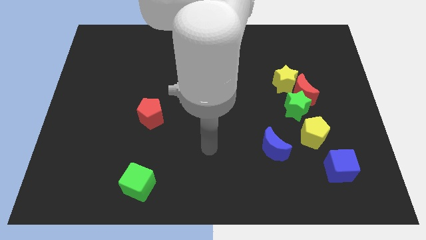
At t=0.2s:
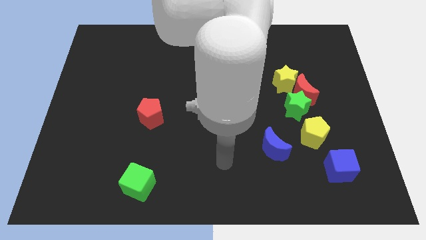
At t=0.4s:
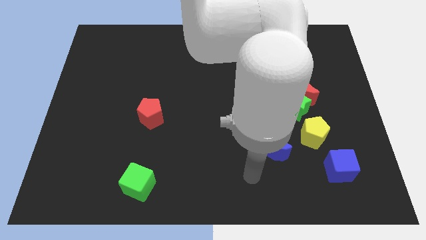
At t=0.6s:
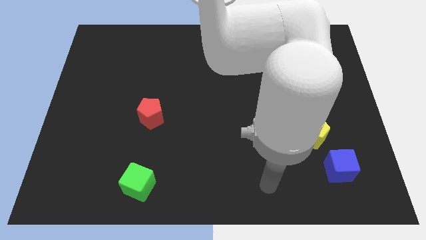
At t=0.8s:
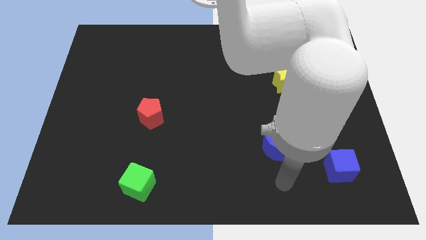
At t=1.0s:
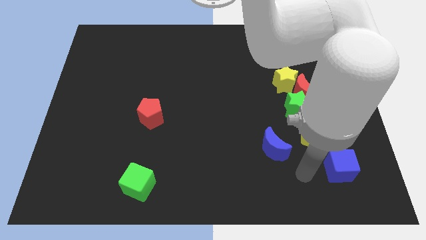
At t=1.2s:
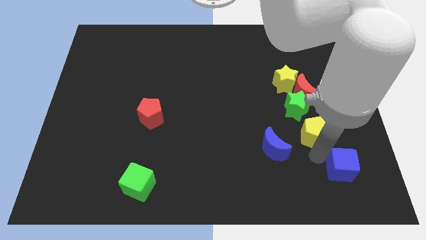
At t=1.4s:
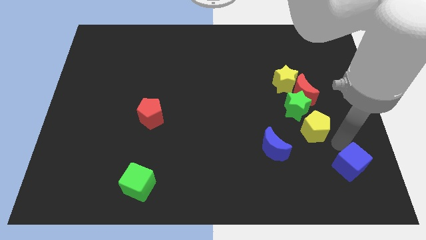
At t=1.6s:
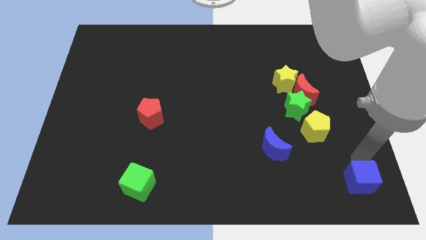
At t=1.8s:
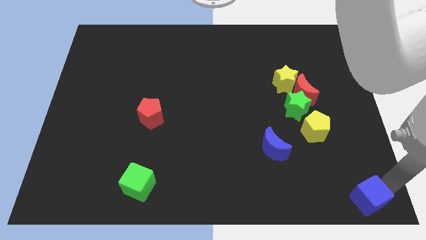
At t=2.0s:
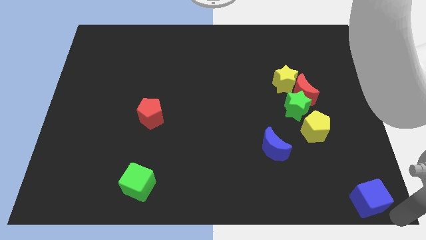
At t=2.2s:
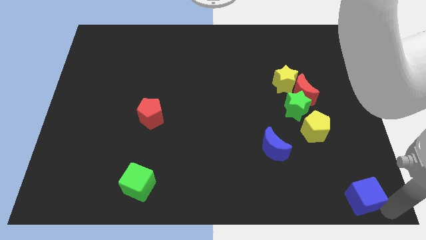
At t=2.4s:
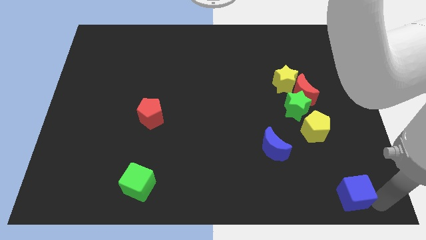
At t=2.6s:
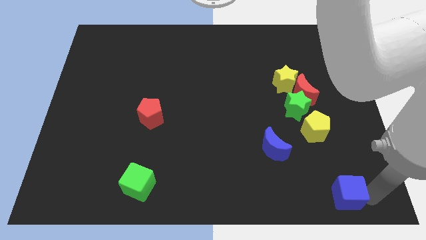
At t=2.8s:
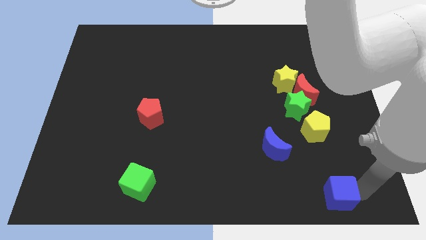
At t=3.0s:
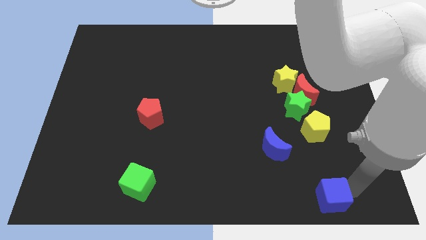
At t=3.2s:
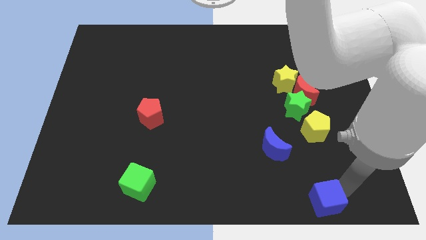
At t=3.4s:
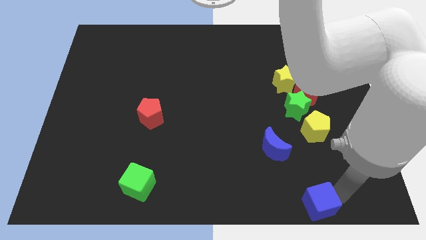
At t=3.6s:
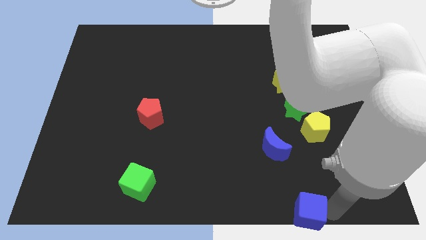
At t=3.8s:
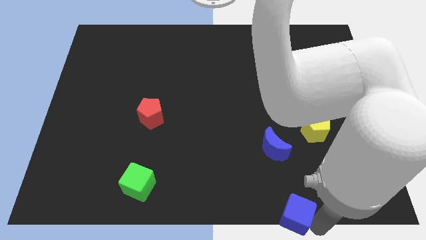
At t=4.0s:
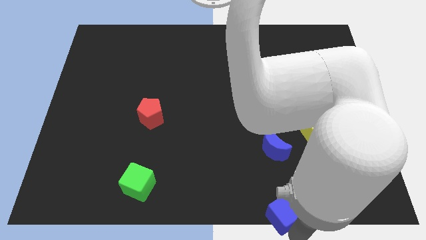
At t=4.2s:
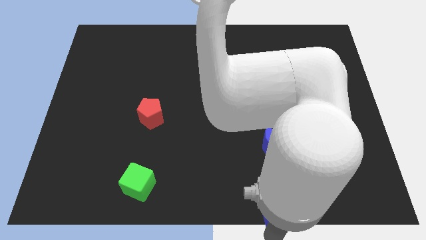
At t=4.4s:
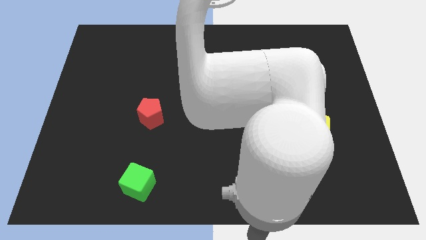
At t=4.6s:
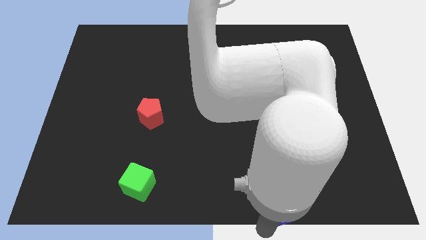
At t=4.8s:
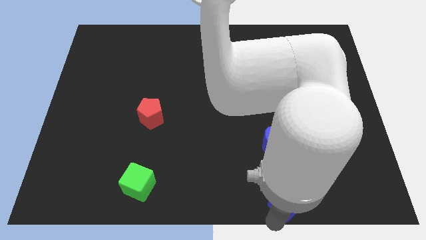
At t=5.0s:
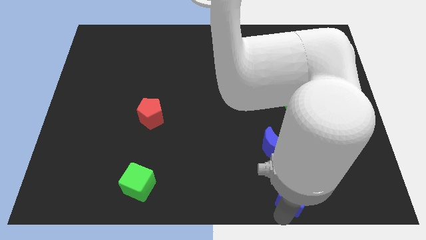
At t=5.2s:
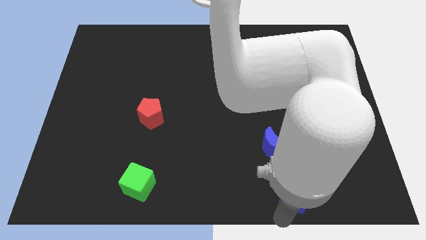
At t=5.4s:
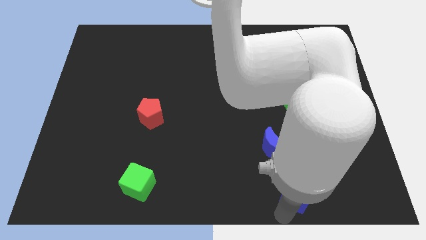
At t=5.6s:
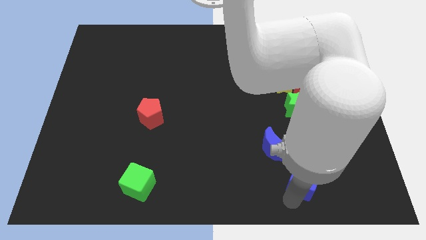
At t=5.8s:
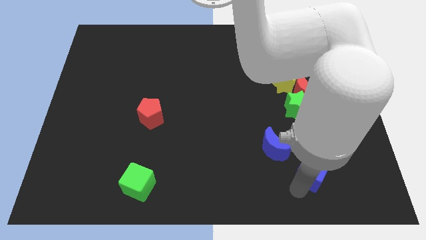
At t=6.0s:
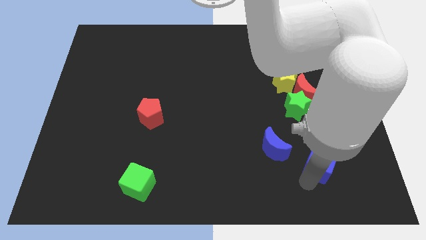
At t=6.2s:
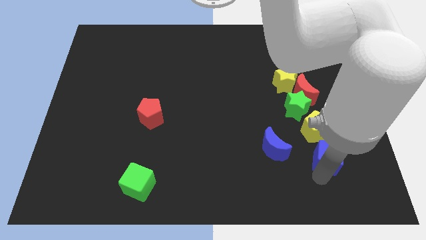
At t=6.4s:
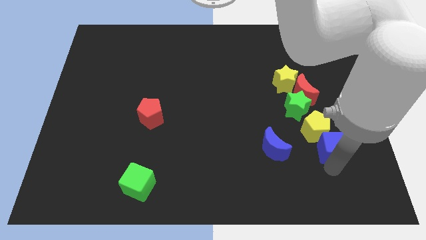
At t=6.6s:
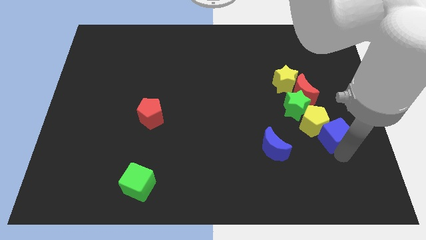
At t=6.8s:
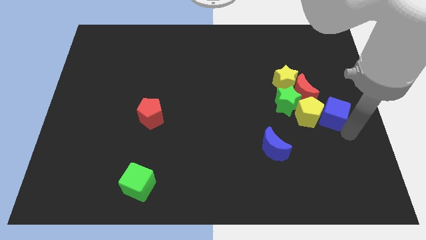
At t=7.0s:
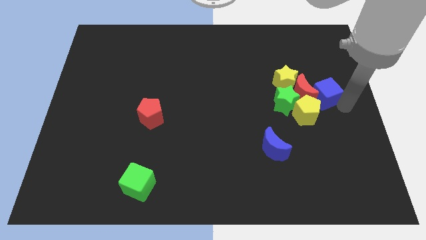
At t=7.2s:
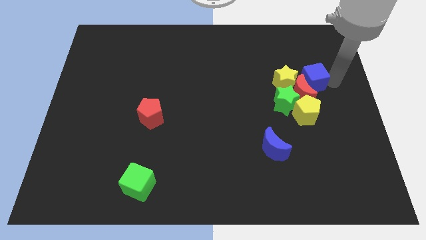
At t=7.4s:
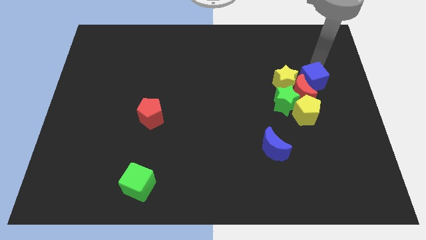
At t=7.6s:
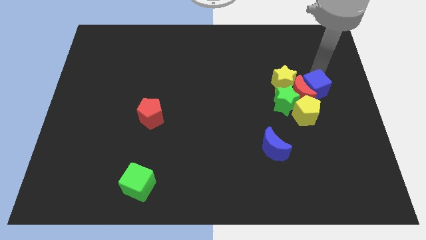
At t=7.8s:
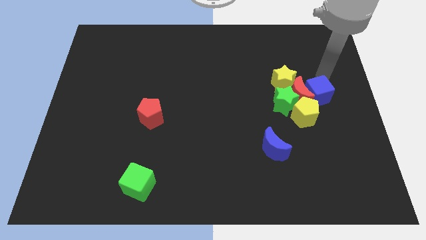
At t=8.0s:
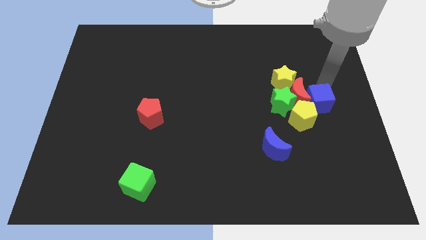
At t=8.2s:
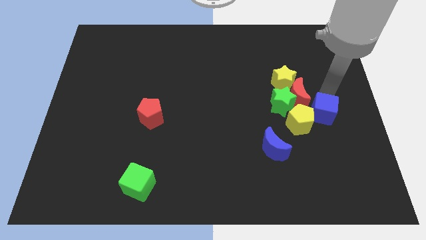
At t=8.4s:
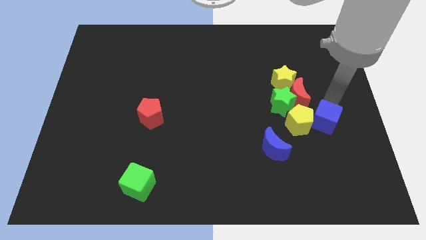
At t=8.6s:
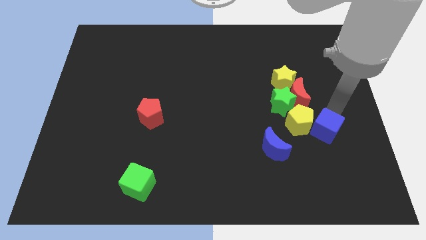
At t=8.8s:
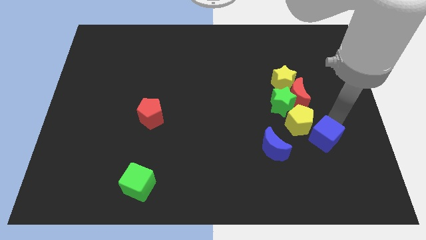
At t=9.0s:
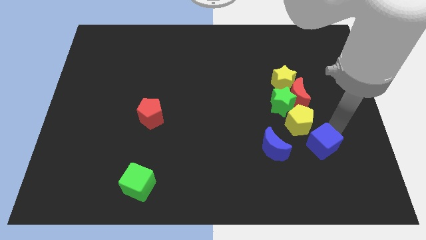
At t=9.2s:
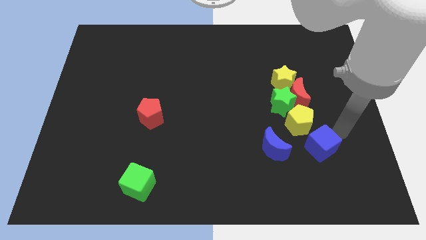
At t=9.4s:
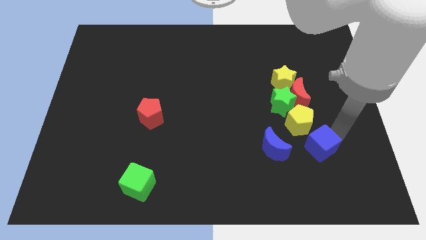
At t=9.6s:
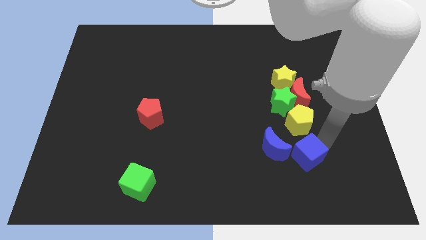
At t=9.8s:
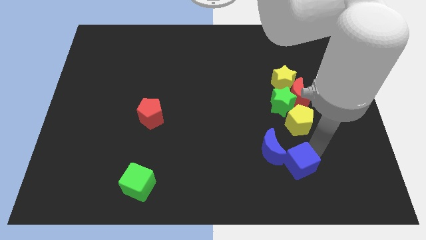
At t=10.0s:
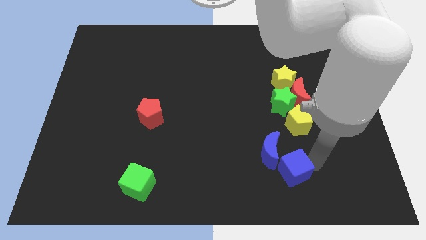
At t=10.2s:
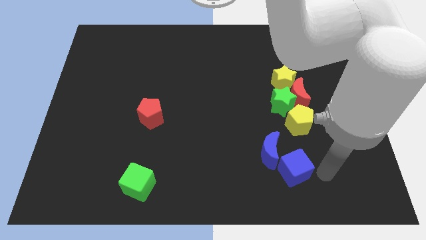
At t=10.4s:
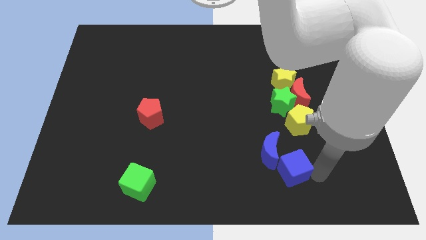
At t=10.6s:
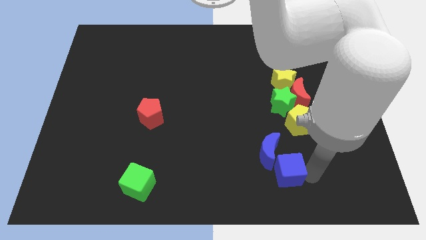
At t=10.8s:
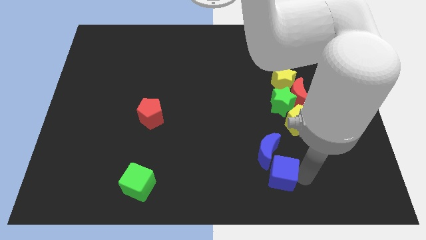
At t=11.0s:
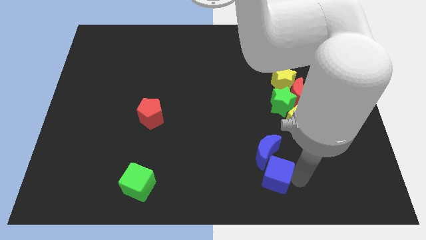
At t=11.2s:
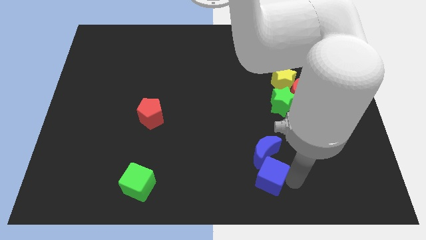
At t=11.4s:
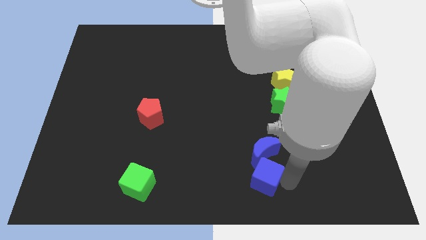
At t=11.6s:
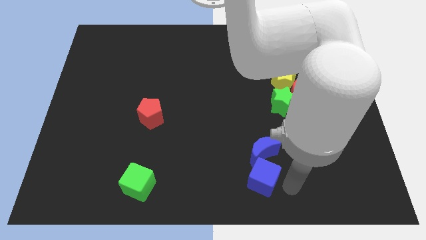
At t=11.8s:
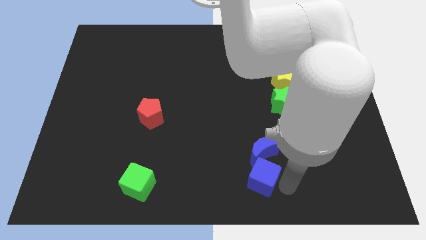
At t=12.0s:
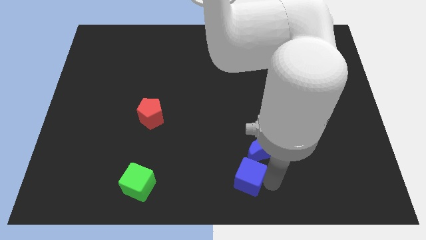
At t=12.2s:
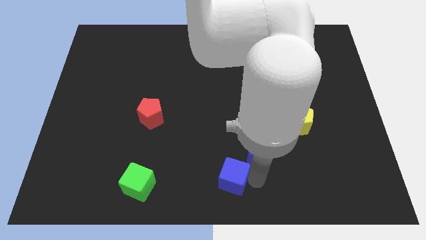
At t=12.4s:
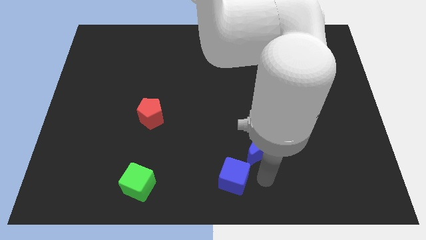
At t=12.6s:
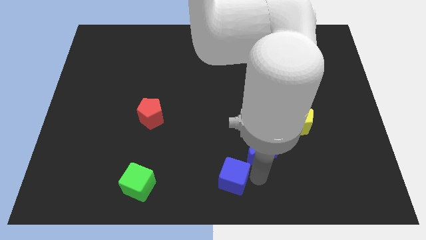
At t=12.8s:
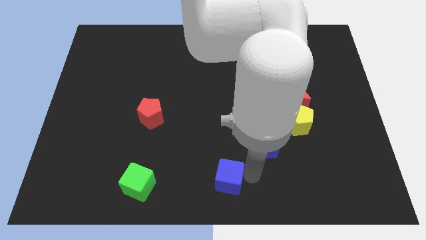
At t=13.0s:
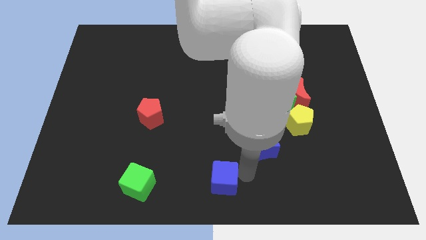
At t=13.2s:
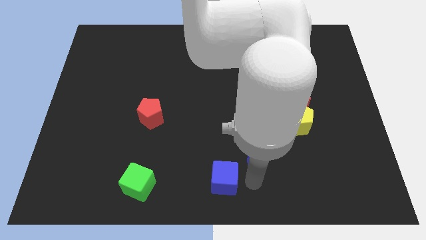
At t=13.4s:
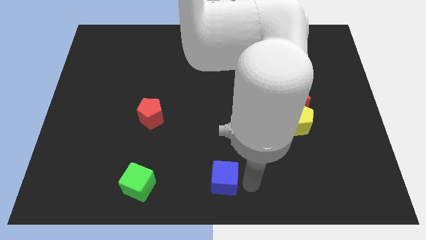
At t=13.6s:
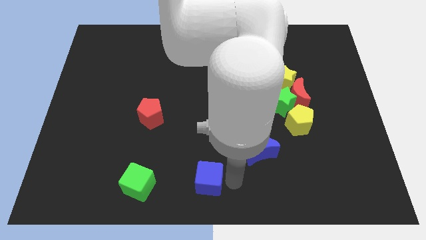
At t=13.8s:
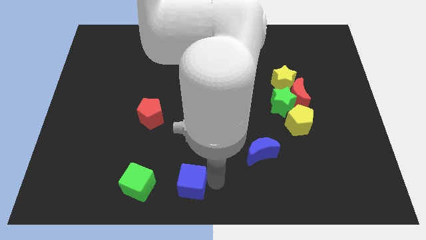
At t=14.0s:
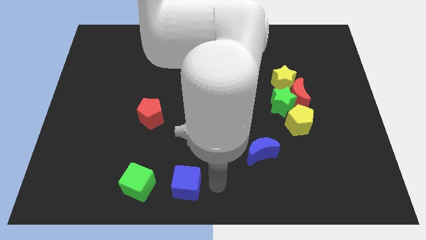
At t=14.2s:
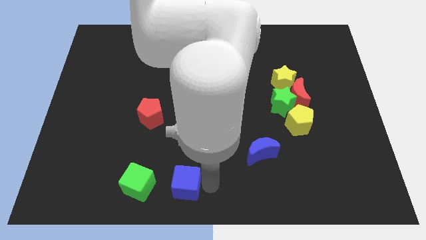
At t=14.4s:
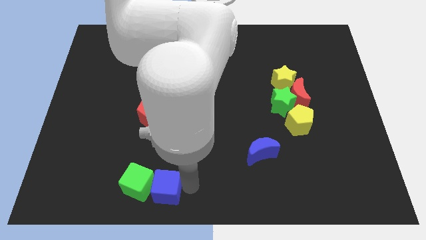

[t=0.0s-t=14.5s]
put the blue cube towards the green cube
